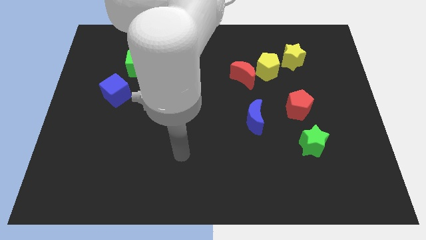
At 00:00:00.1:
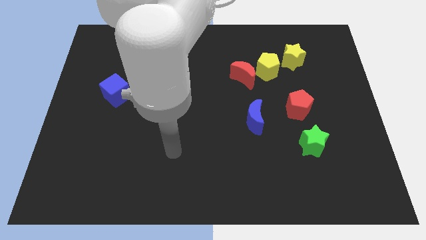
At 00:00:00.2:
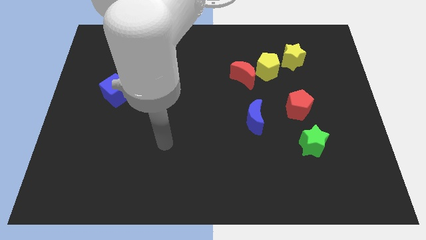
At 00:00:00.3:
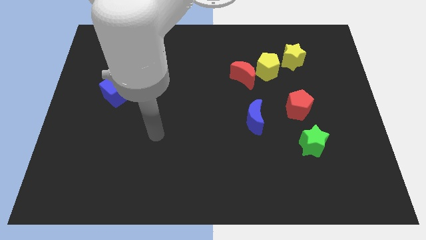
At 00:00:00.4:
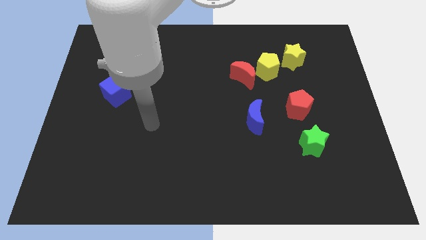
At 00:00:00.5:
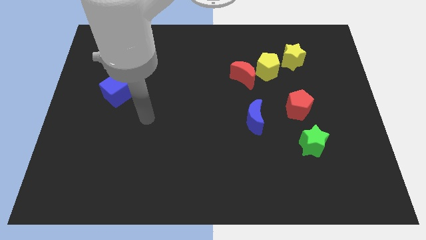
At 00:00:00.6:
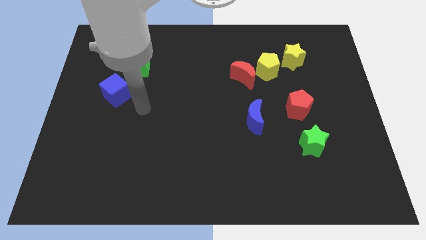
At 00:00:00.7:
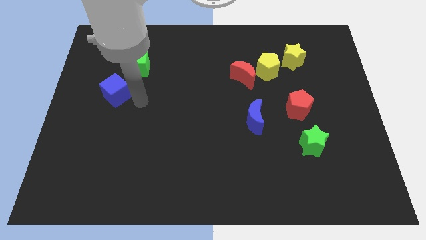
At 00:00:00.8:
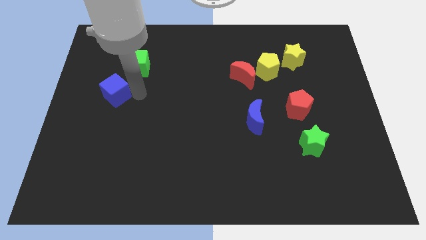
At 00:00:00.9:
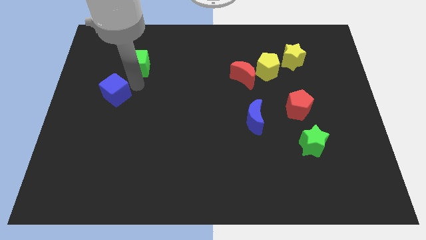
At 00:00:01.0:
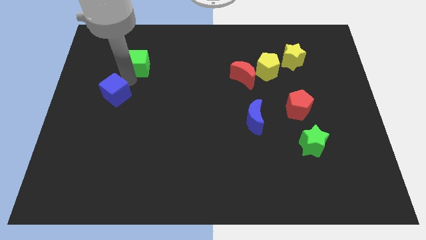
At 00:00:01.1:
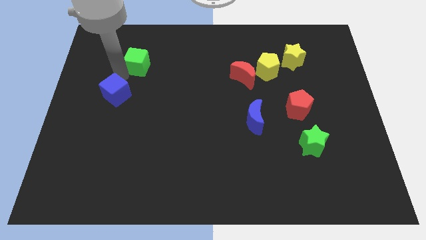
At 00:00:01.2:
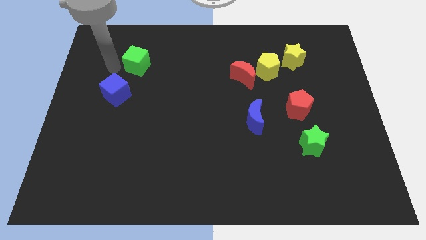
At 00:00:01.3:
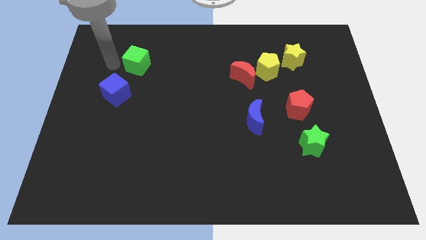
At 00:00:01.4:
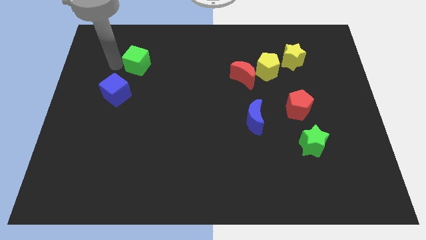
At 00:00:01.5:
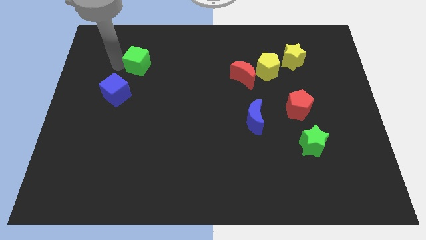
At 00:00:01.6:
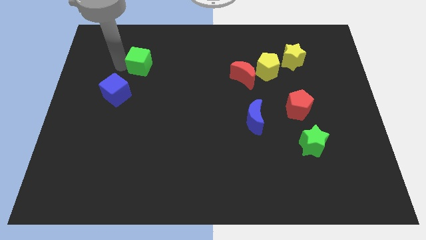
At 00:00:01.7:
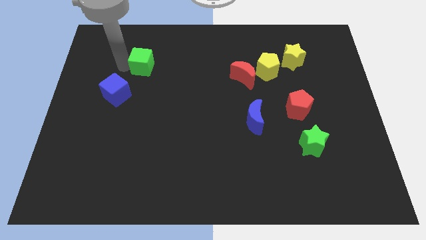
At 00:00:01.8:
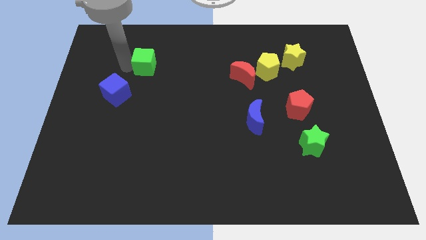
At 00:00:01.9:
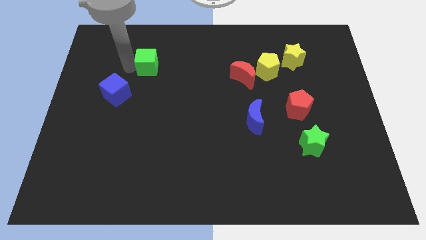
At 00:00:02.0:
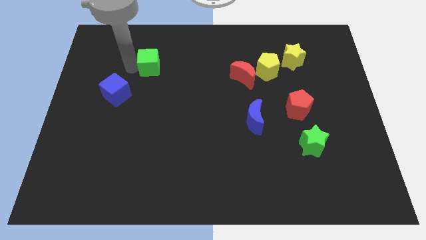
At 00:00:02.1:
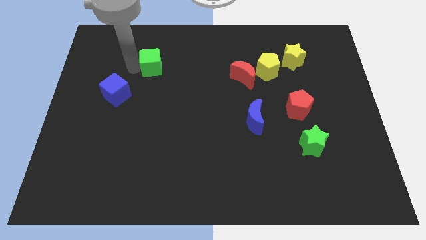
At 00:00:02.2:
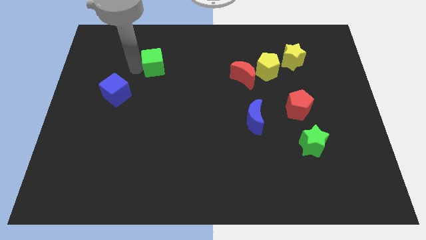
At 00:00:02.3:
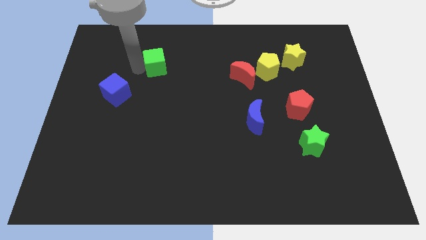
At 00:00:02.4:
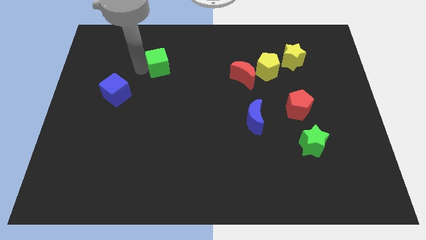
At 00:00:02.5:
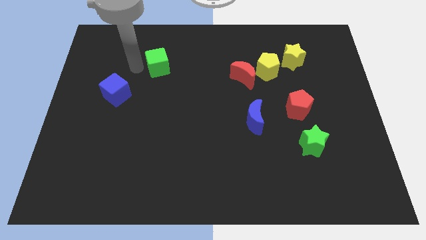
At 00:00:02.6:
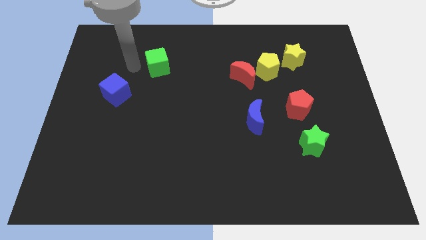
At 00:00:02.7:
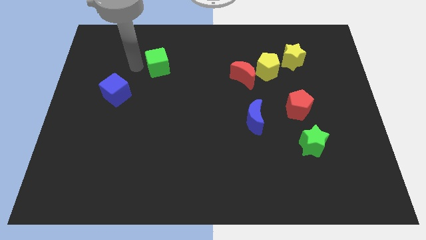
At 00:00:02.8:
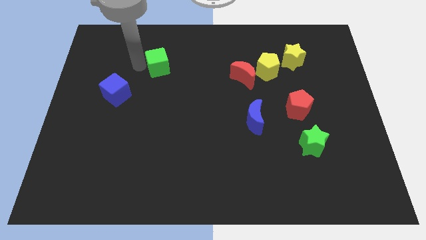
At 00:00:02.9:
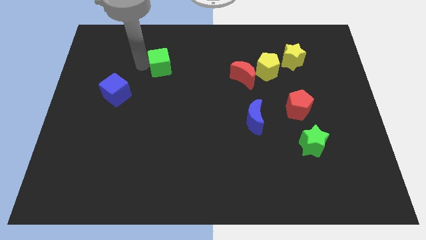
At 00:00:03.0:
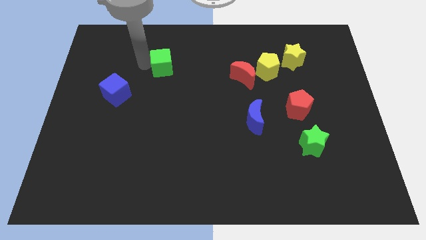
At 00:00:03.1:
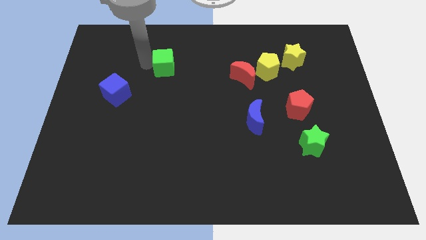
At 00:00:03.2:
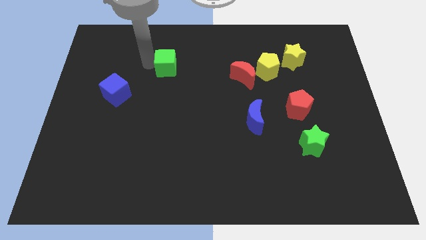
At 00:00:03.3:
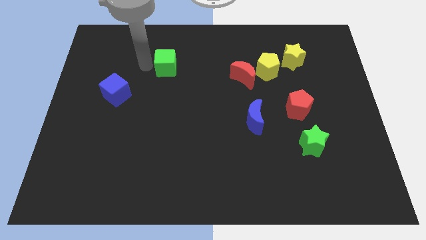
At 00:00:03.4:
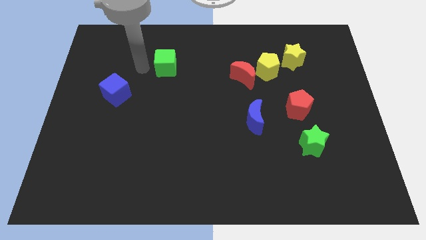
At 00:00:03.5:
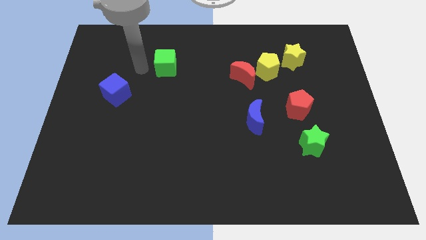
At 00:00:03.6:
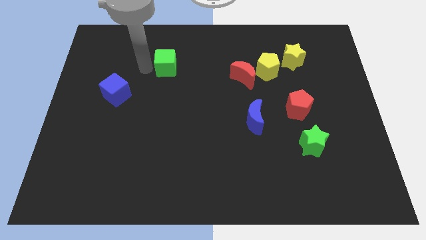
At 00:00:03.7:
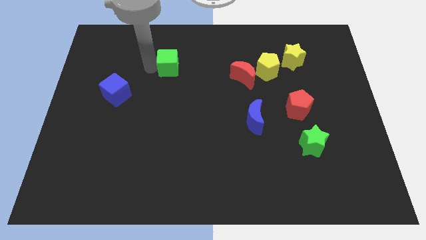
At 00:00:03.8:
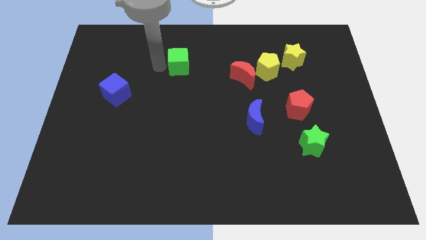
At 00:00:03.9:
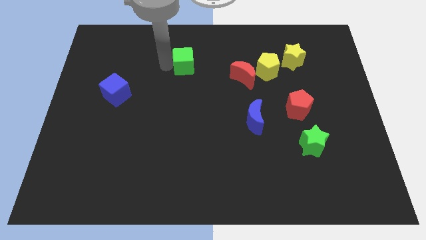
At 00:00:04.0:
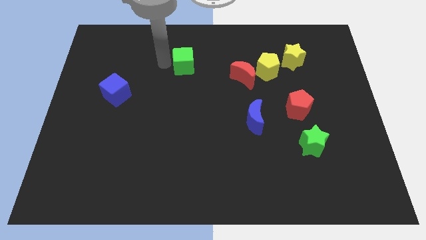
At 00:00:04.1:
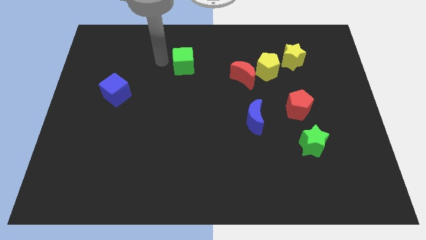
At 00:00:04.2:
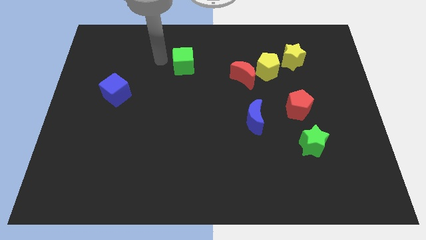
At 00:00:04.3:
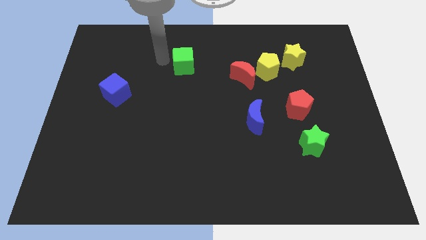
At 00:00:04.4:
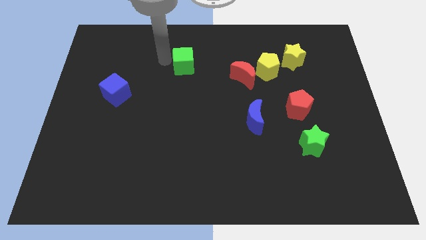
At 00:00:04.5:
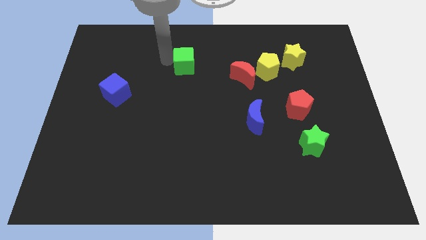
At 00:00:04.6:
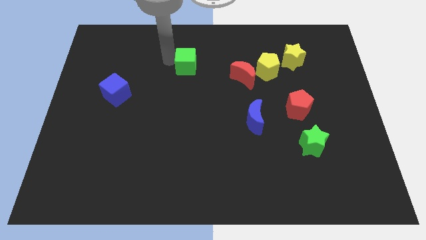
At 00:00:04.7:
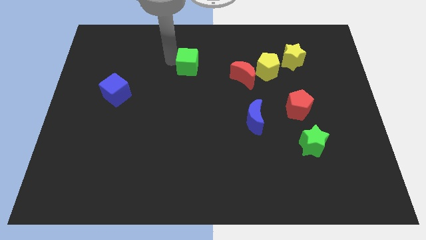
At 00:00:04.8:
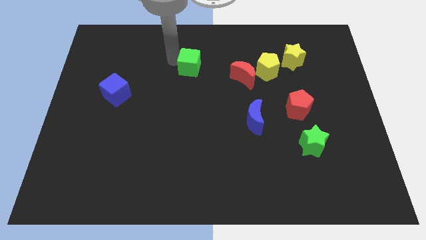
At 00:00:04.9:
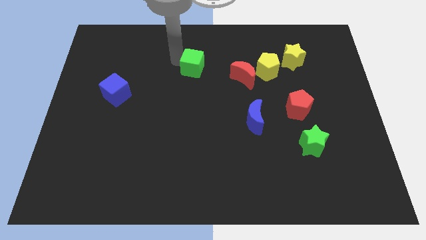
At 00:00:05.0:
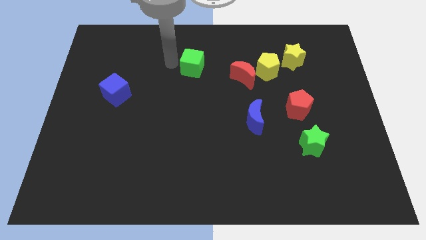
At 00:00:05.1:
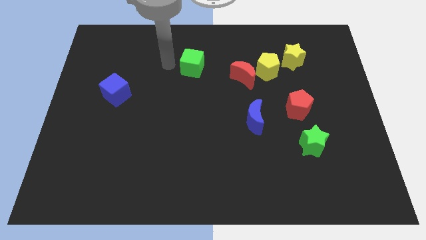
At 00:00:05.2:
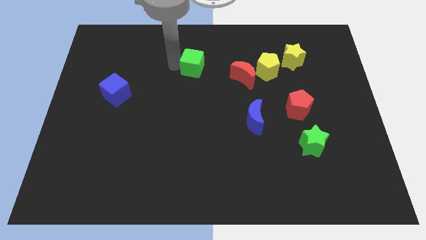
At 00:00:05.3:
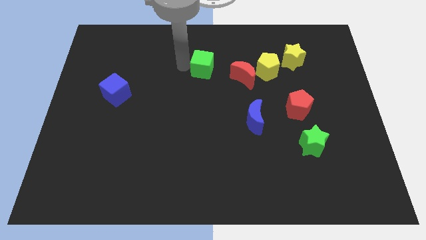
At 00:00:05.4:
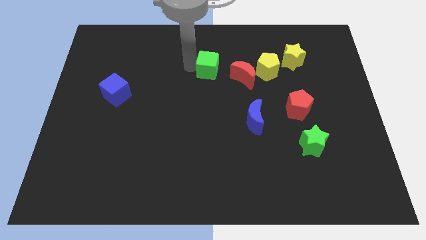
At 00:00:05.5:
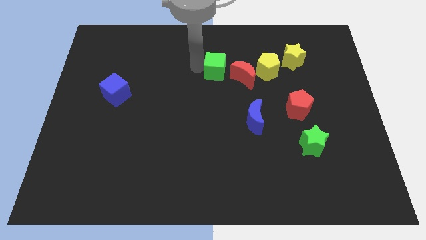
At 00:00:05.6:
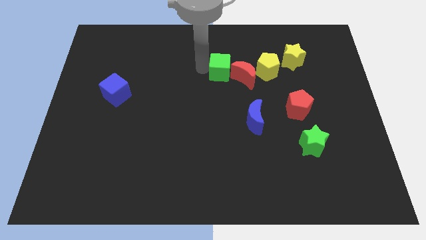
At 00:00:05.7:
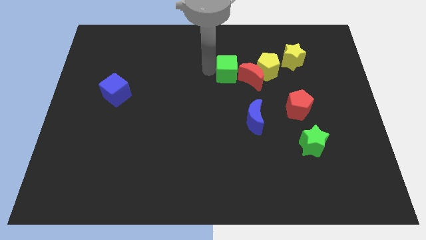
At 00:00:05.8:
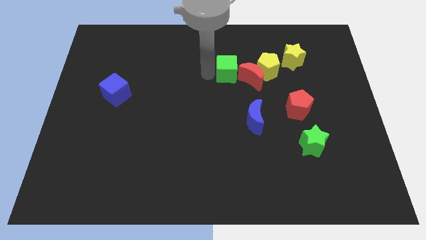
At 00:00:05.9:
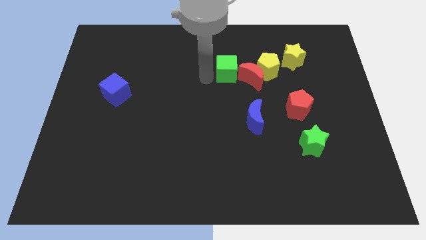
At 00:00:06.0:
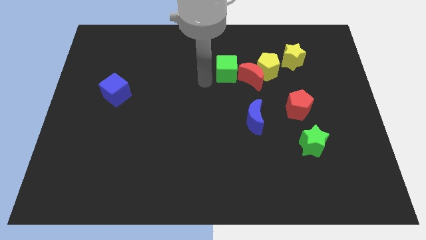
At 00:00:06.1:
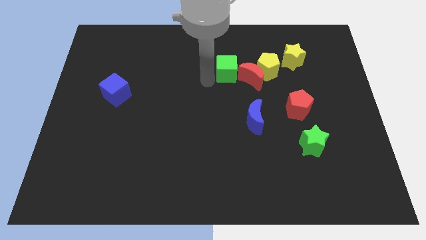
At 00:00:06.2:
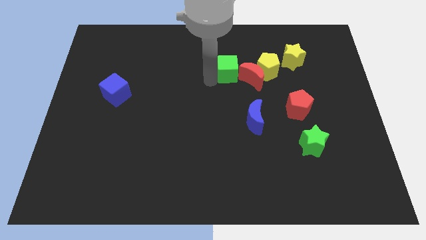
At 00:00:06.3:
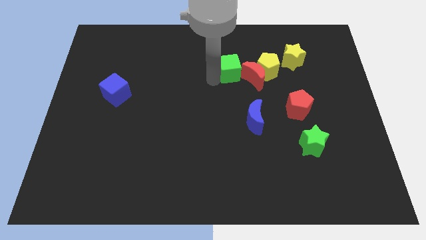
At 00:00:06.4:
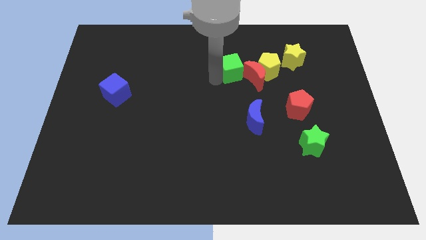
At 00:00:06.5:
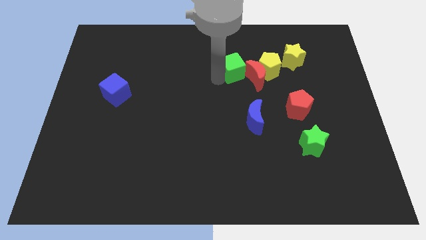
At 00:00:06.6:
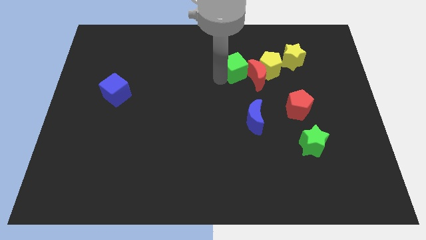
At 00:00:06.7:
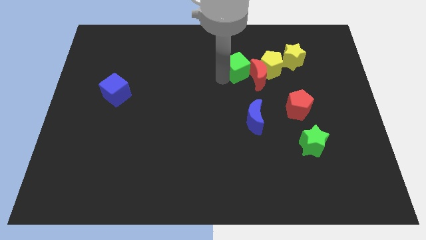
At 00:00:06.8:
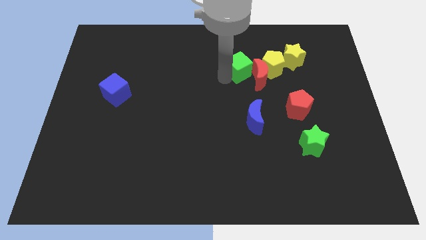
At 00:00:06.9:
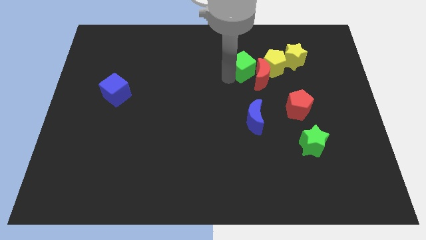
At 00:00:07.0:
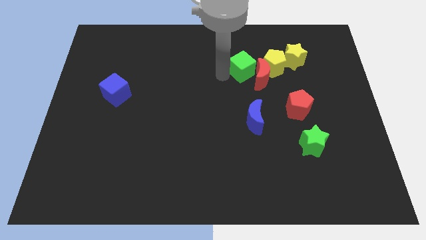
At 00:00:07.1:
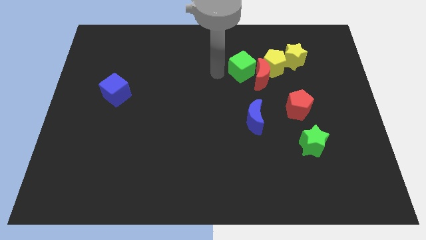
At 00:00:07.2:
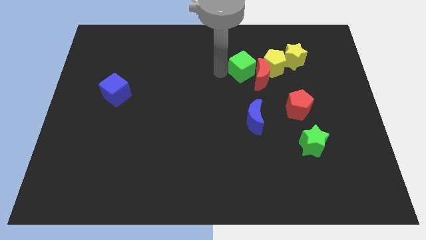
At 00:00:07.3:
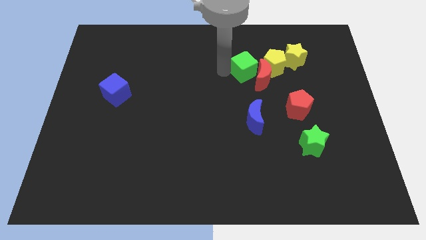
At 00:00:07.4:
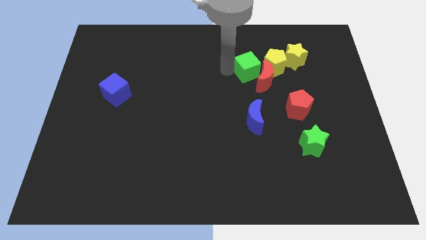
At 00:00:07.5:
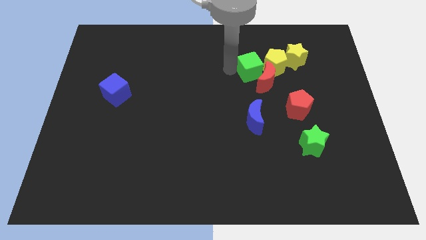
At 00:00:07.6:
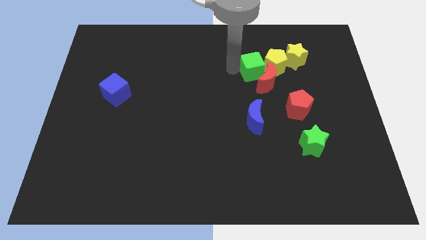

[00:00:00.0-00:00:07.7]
put the green cube towards the yellow pentagon

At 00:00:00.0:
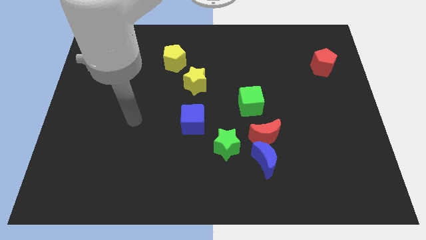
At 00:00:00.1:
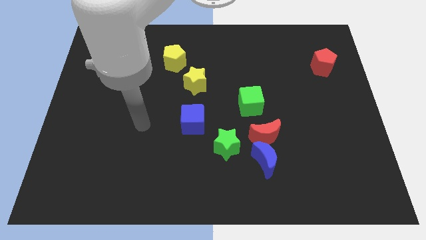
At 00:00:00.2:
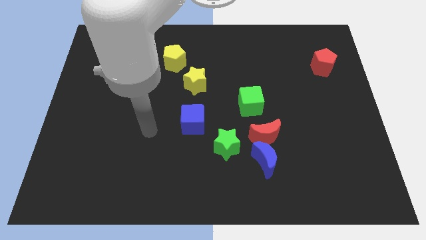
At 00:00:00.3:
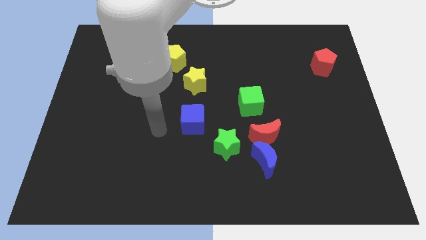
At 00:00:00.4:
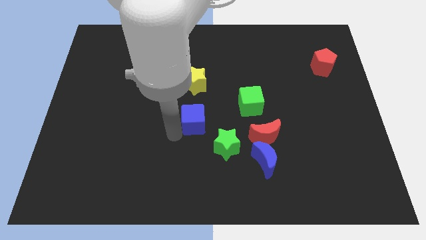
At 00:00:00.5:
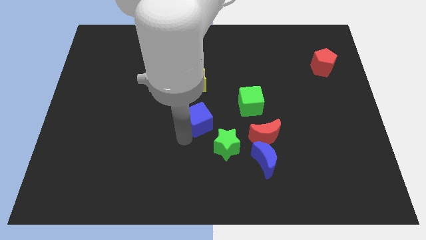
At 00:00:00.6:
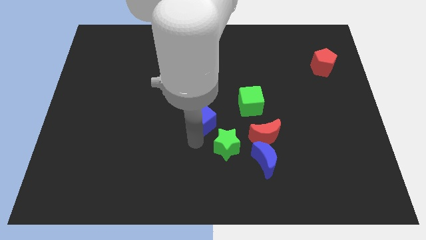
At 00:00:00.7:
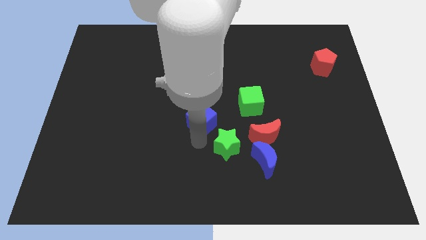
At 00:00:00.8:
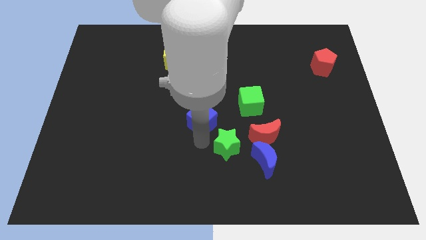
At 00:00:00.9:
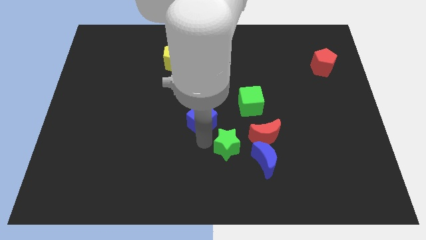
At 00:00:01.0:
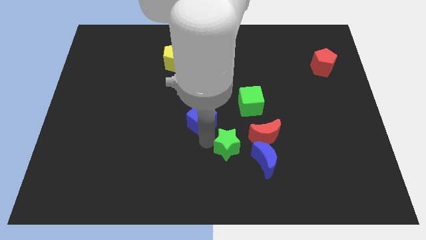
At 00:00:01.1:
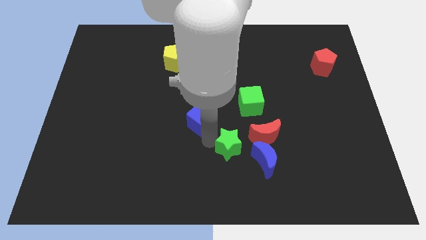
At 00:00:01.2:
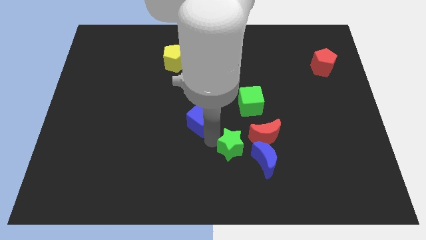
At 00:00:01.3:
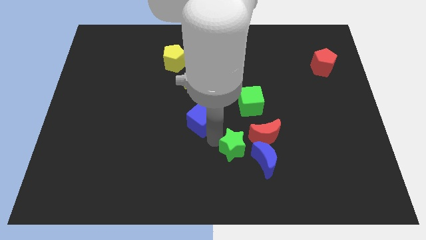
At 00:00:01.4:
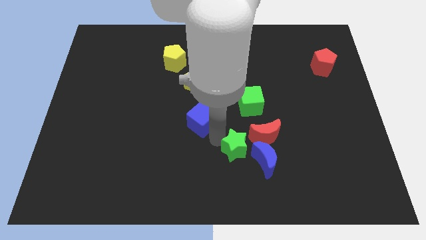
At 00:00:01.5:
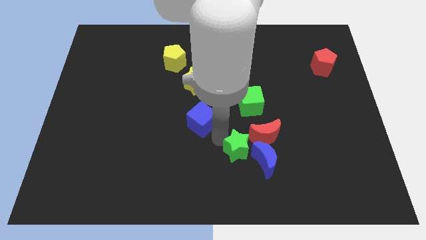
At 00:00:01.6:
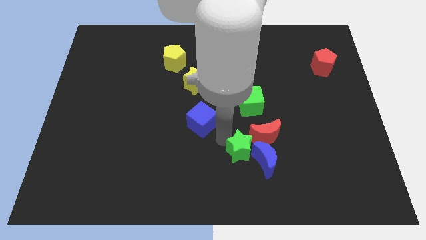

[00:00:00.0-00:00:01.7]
push the green star close to the blue moon
